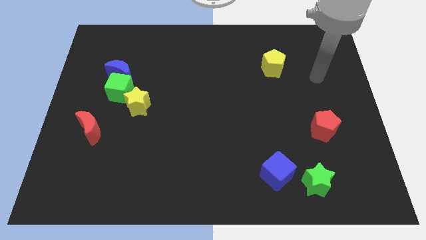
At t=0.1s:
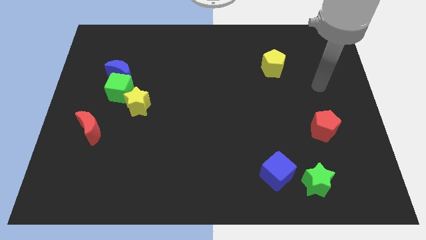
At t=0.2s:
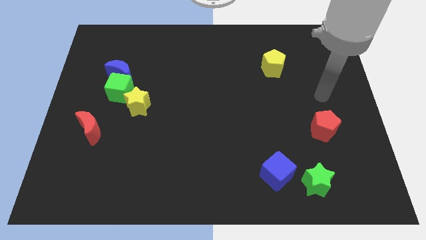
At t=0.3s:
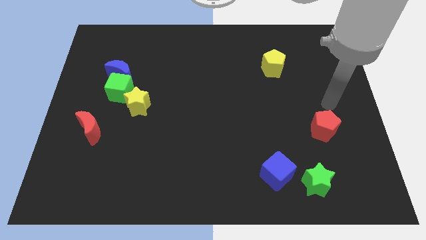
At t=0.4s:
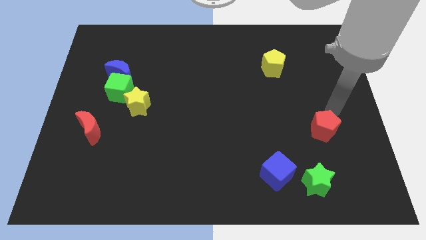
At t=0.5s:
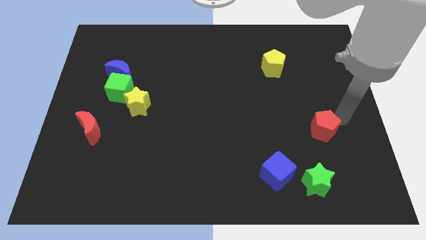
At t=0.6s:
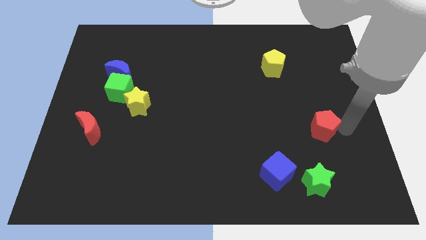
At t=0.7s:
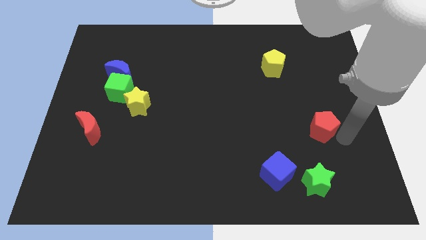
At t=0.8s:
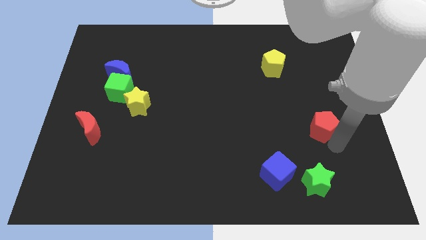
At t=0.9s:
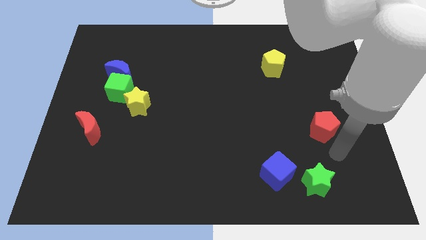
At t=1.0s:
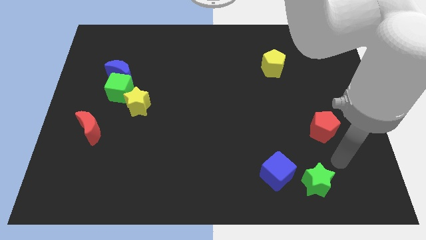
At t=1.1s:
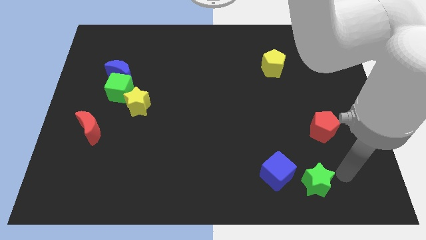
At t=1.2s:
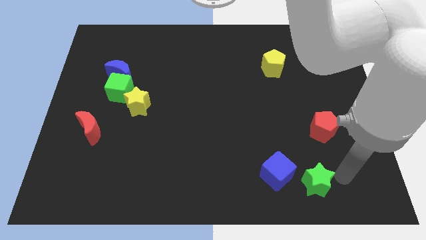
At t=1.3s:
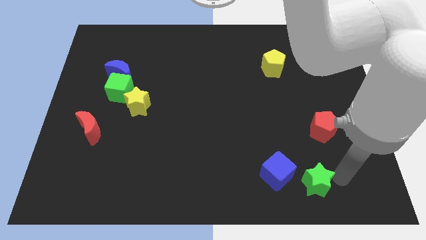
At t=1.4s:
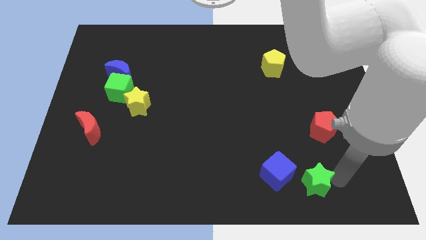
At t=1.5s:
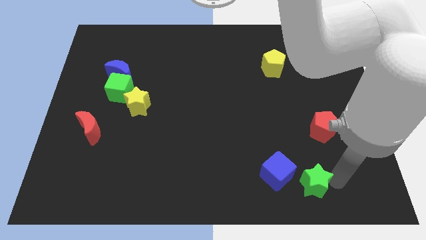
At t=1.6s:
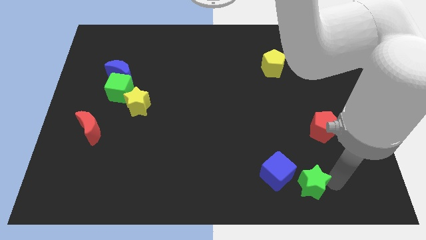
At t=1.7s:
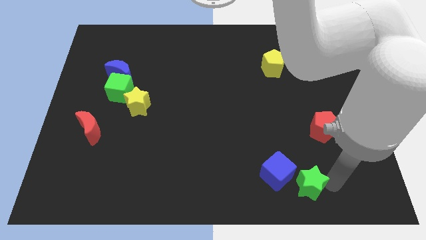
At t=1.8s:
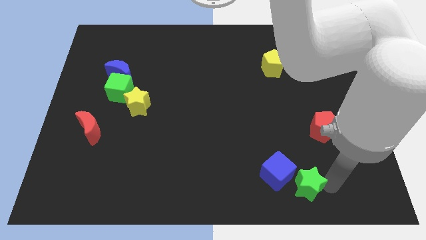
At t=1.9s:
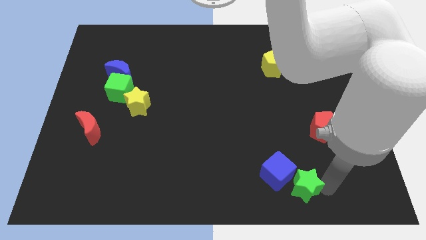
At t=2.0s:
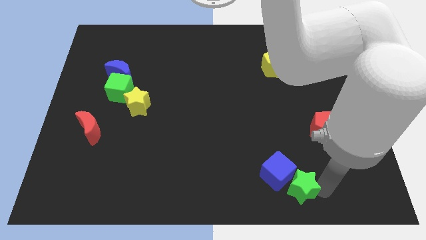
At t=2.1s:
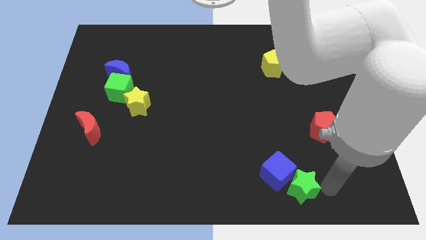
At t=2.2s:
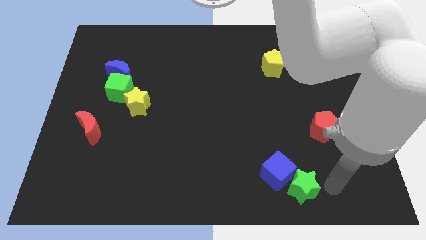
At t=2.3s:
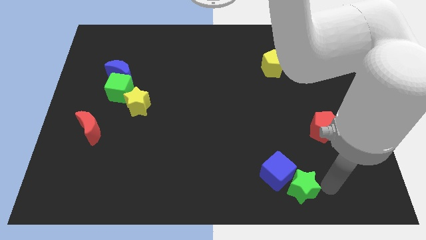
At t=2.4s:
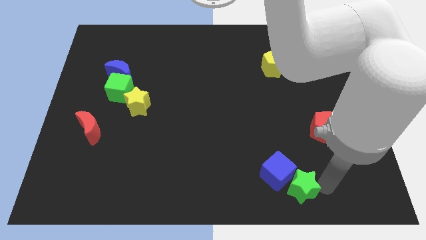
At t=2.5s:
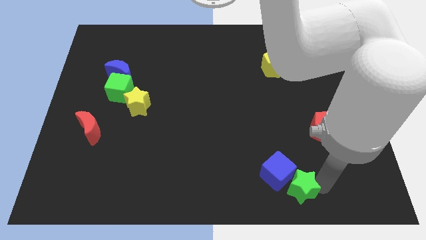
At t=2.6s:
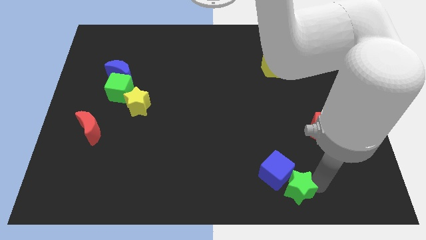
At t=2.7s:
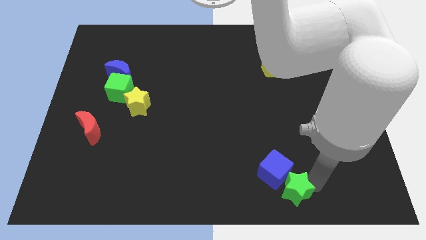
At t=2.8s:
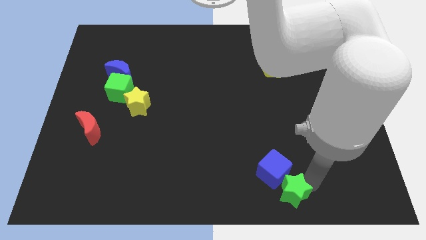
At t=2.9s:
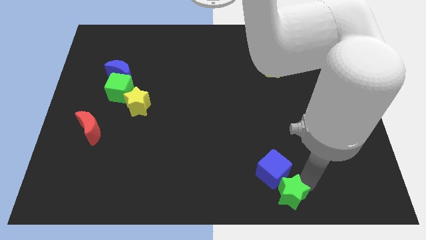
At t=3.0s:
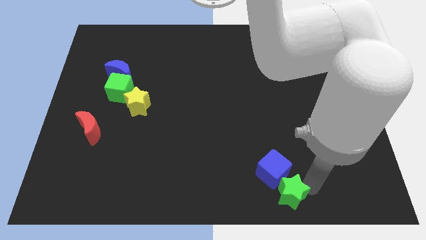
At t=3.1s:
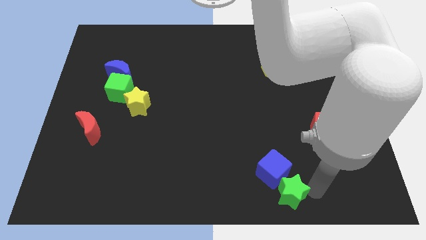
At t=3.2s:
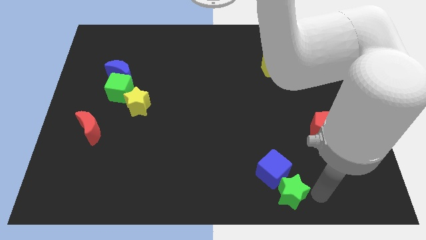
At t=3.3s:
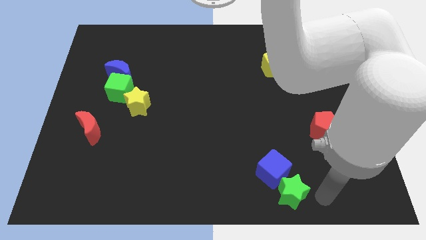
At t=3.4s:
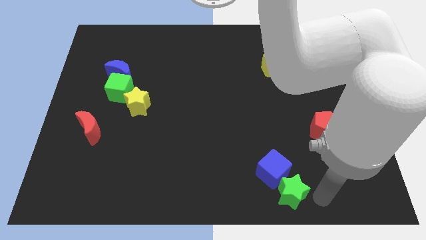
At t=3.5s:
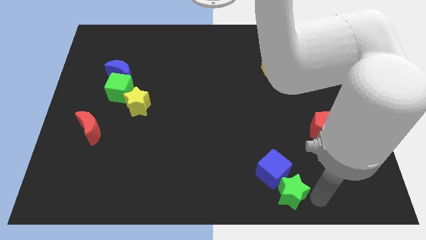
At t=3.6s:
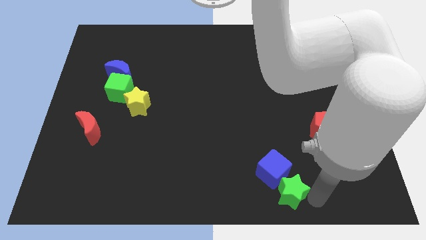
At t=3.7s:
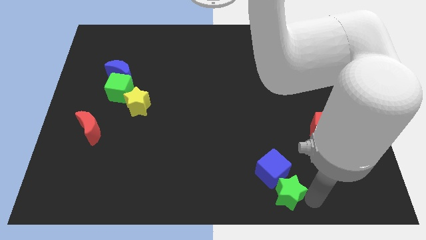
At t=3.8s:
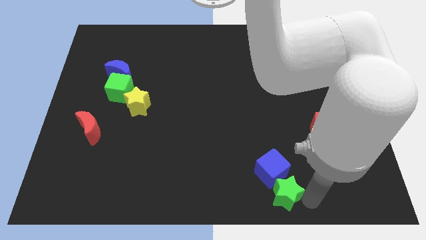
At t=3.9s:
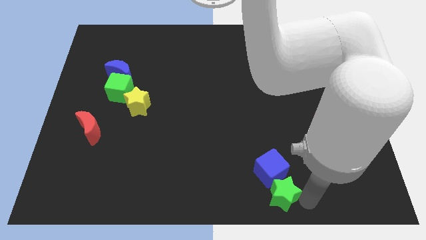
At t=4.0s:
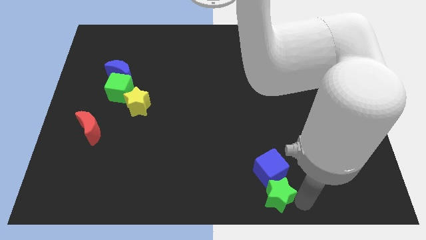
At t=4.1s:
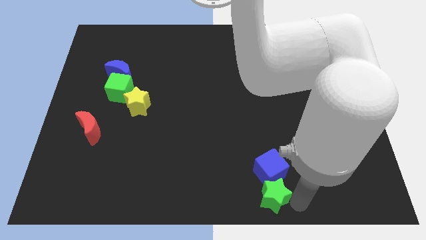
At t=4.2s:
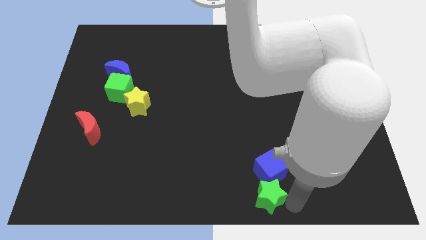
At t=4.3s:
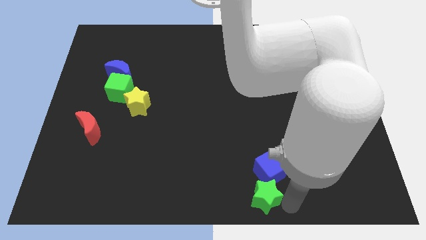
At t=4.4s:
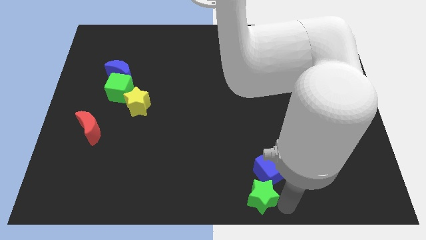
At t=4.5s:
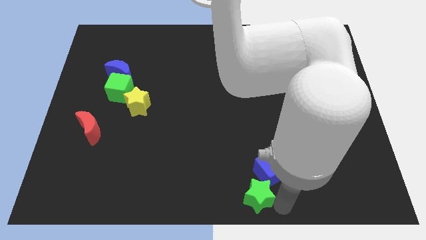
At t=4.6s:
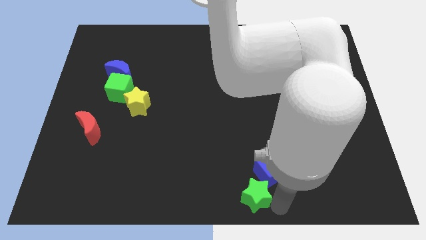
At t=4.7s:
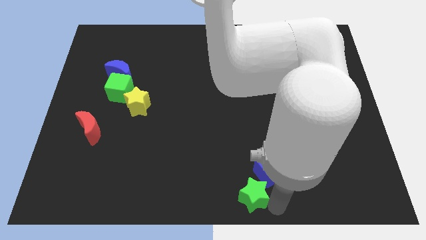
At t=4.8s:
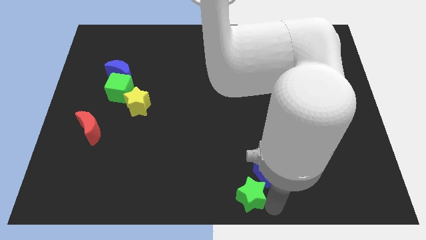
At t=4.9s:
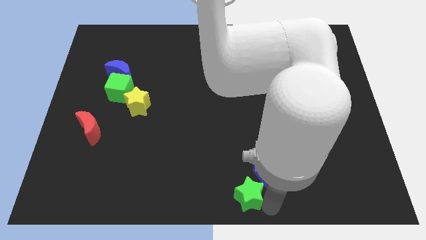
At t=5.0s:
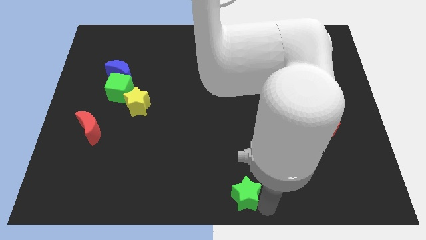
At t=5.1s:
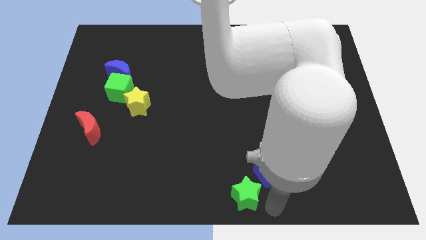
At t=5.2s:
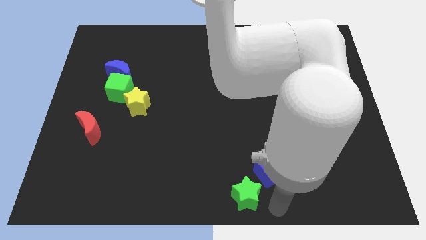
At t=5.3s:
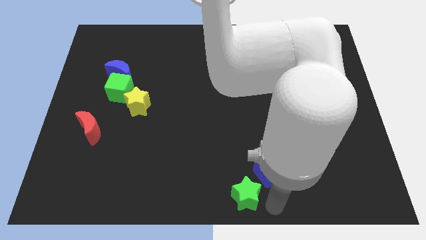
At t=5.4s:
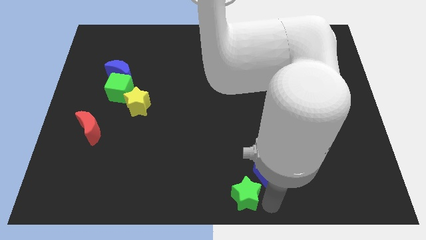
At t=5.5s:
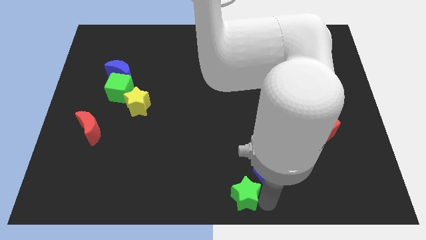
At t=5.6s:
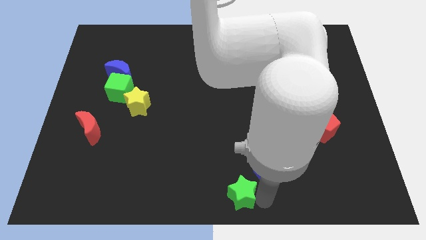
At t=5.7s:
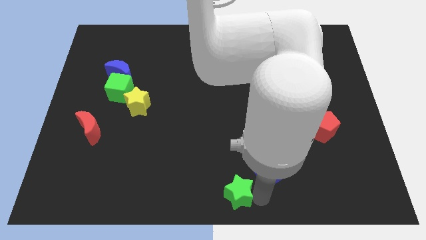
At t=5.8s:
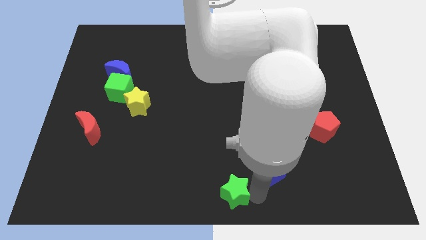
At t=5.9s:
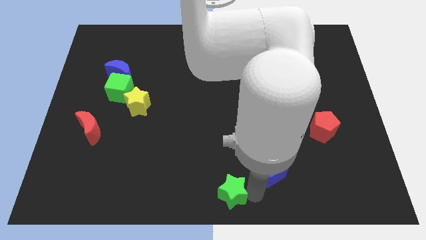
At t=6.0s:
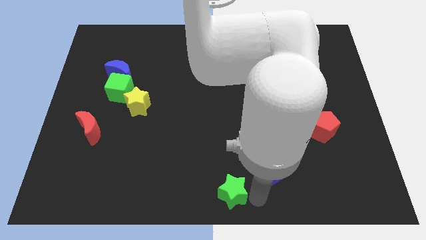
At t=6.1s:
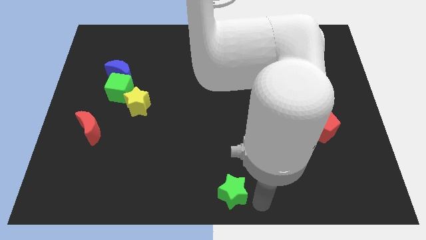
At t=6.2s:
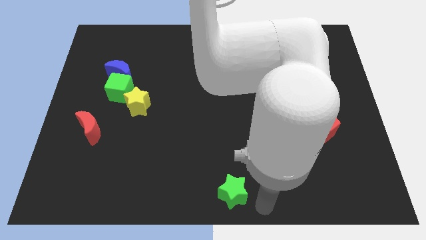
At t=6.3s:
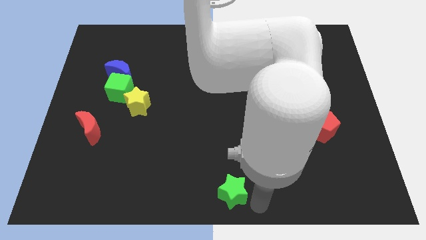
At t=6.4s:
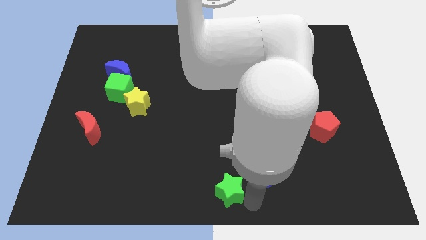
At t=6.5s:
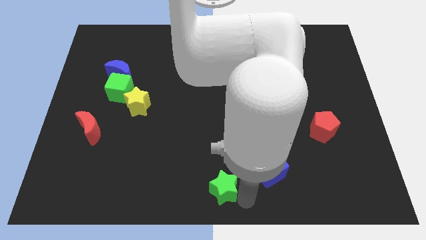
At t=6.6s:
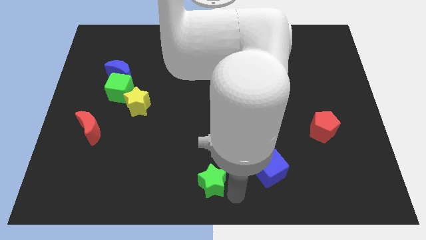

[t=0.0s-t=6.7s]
push the green star left

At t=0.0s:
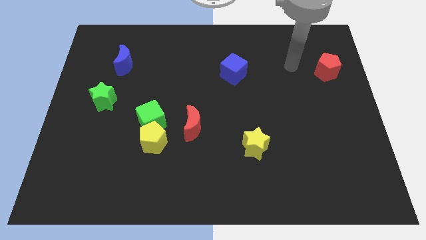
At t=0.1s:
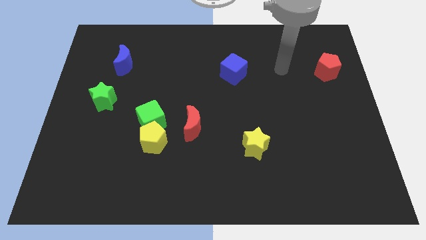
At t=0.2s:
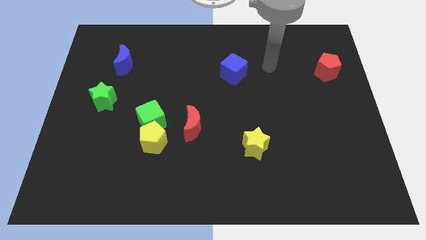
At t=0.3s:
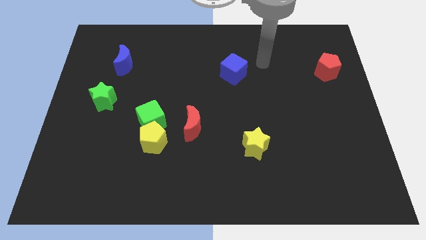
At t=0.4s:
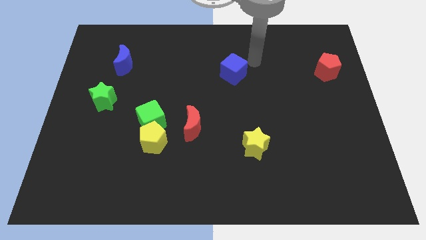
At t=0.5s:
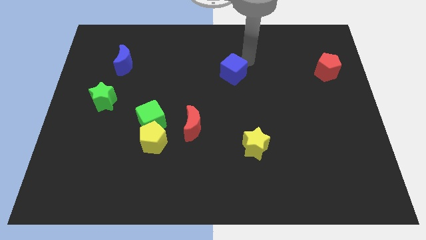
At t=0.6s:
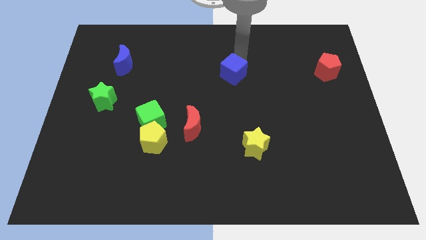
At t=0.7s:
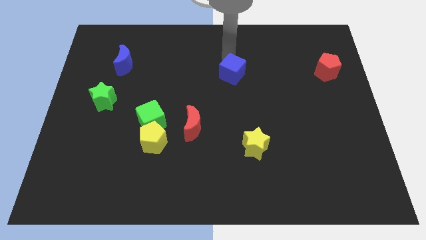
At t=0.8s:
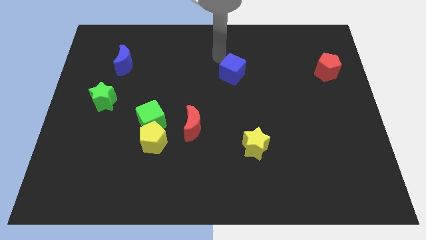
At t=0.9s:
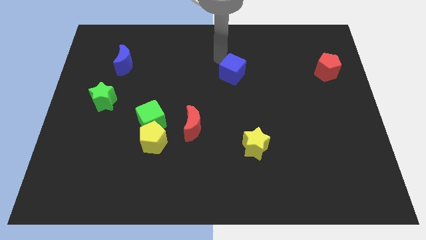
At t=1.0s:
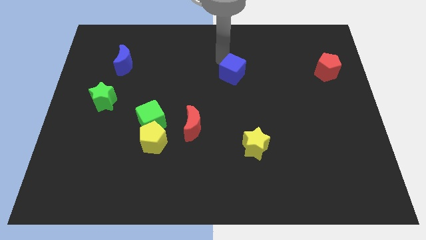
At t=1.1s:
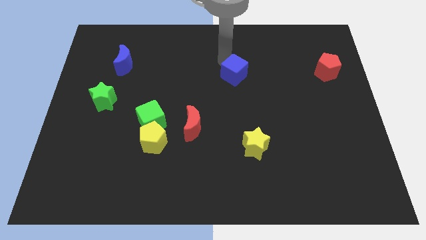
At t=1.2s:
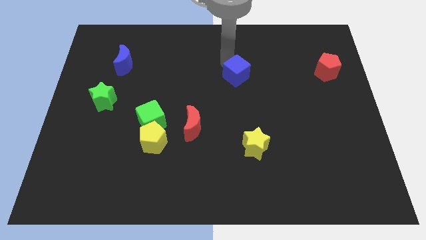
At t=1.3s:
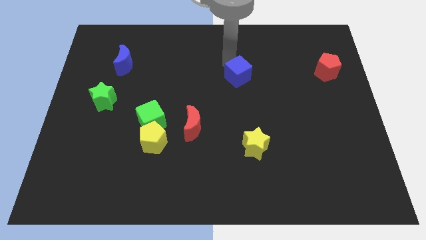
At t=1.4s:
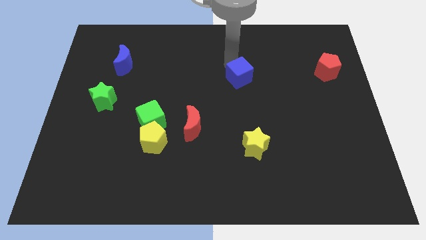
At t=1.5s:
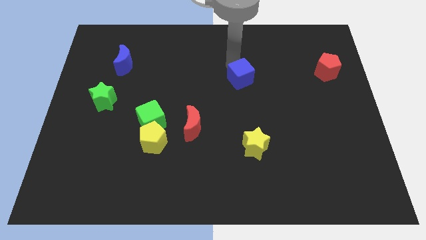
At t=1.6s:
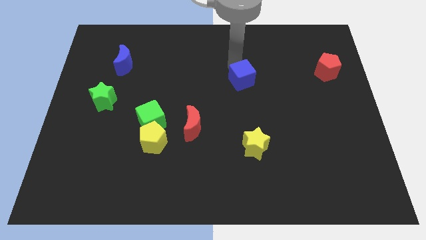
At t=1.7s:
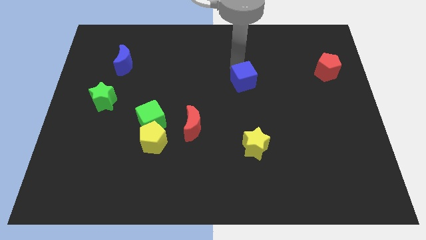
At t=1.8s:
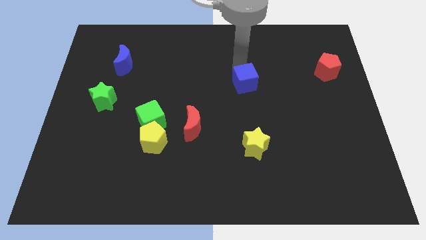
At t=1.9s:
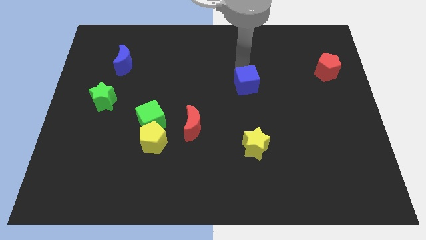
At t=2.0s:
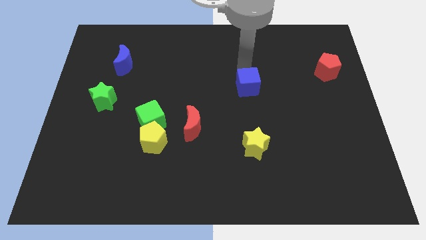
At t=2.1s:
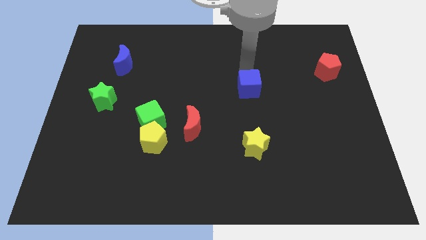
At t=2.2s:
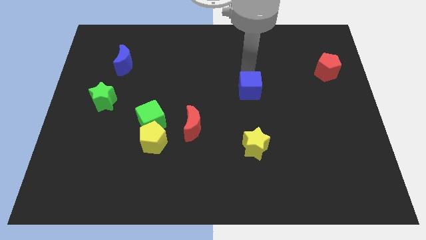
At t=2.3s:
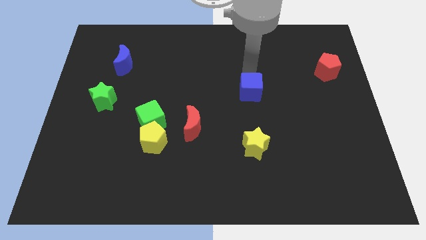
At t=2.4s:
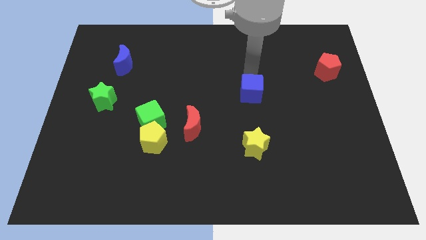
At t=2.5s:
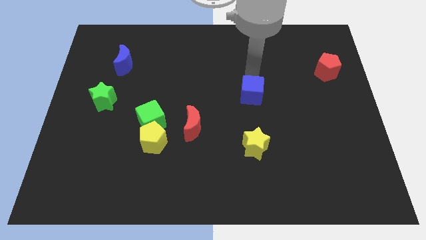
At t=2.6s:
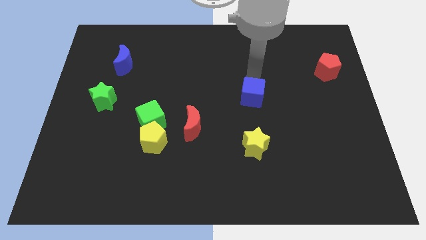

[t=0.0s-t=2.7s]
move the blue cube a little bit down
